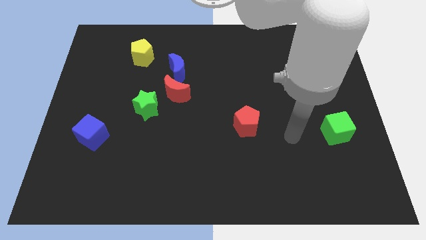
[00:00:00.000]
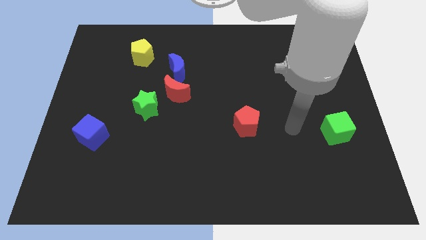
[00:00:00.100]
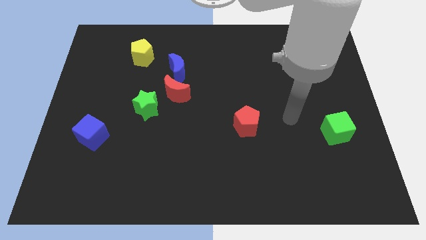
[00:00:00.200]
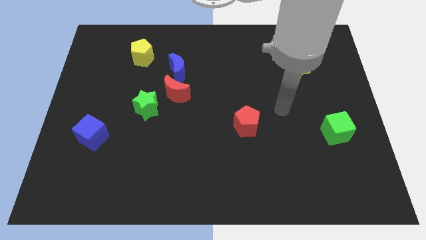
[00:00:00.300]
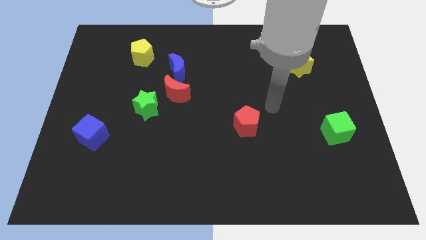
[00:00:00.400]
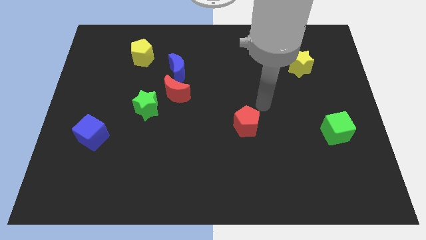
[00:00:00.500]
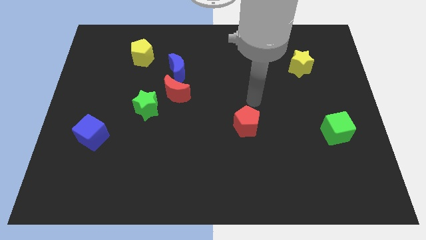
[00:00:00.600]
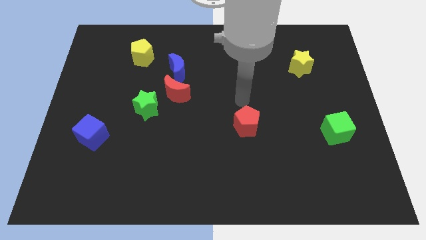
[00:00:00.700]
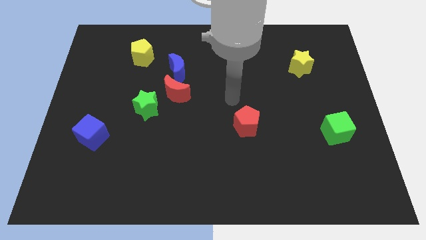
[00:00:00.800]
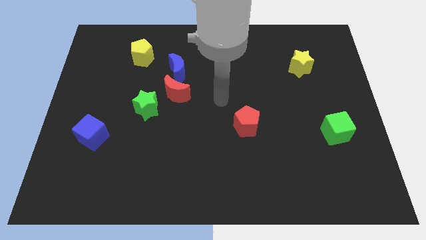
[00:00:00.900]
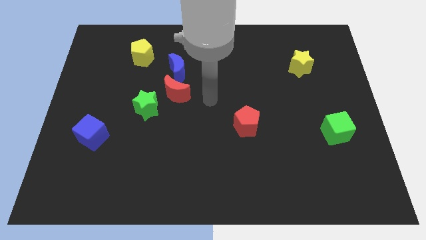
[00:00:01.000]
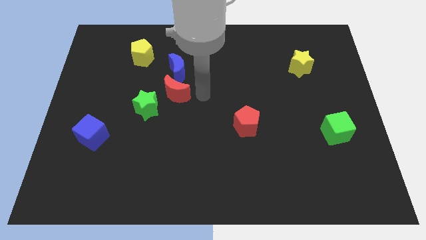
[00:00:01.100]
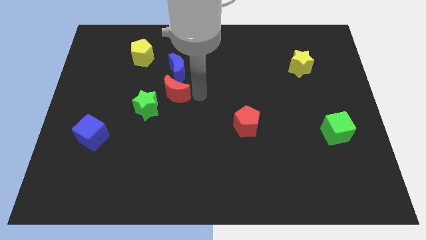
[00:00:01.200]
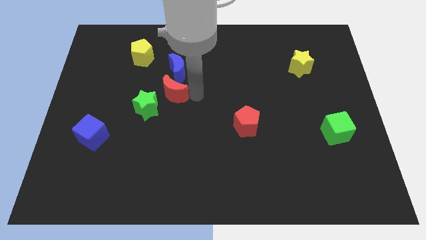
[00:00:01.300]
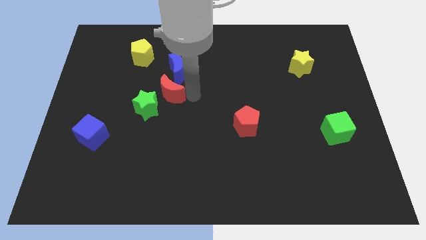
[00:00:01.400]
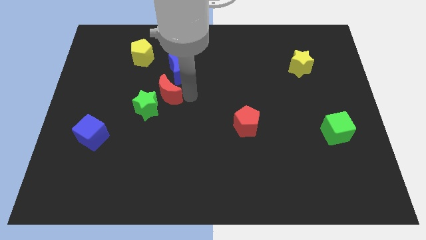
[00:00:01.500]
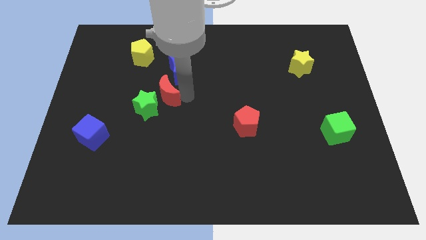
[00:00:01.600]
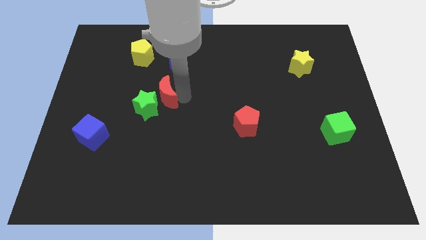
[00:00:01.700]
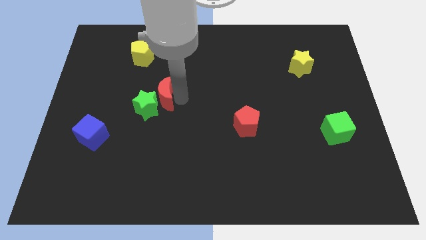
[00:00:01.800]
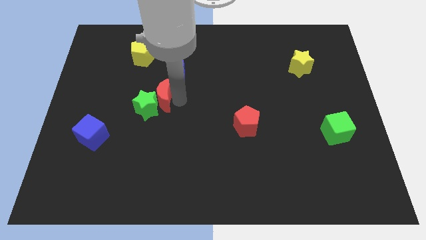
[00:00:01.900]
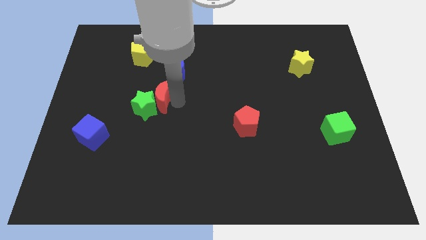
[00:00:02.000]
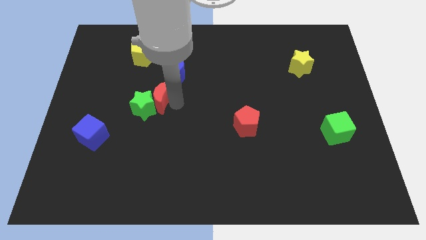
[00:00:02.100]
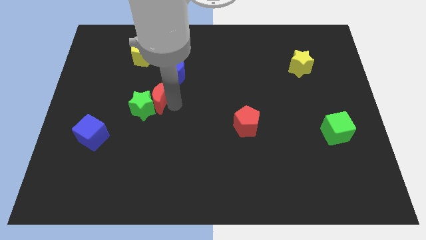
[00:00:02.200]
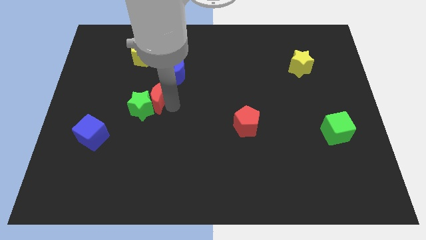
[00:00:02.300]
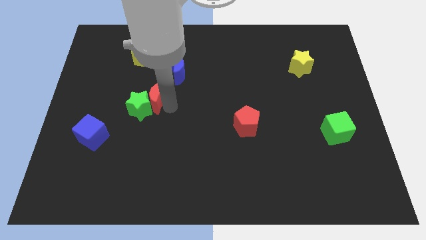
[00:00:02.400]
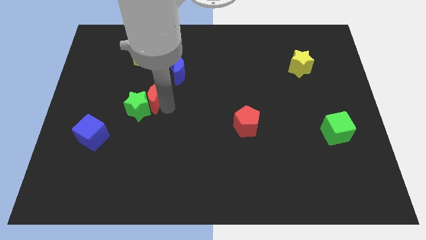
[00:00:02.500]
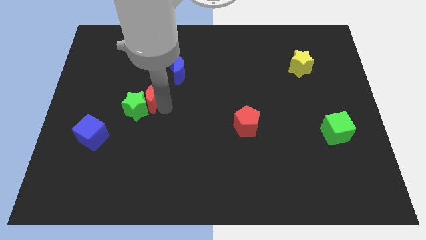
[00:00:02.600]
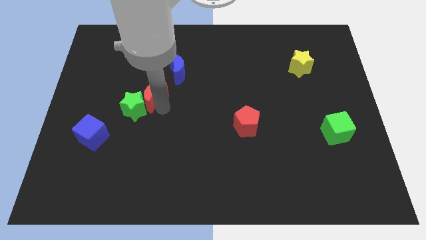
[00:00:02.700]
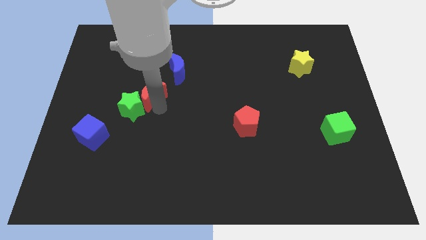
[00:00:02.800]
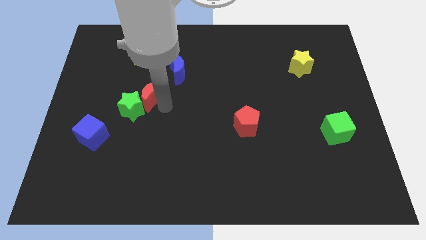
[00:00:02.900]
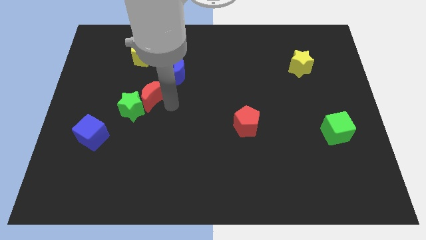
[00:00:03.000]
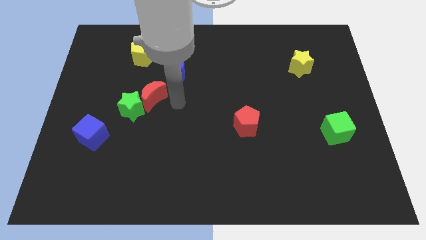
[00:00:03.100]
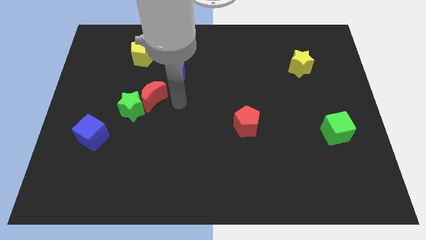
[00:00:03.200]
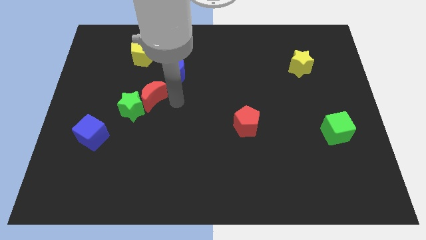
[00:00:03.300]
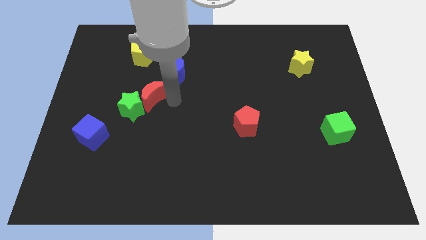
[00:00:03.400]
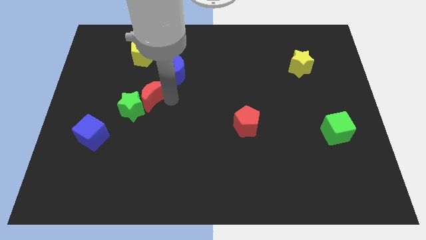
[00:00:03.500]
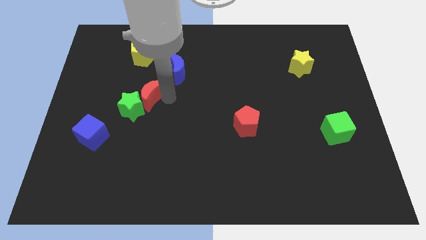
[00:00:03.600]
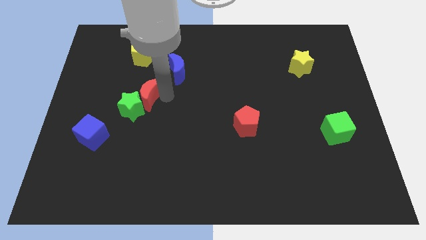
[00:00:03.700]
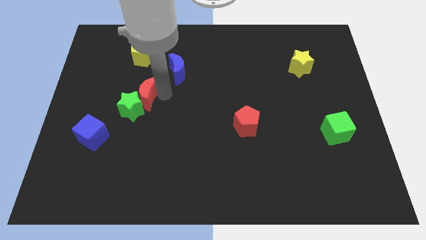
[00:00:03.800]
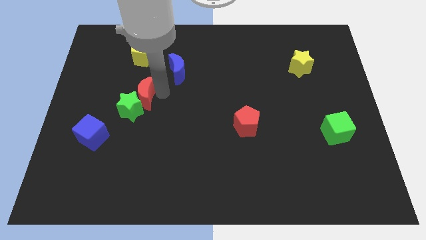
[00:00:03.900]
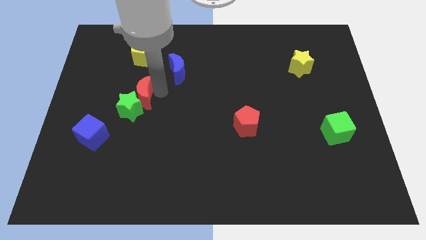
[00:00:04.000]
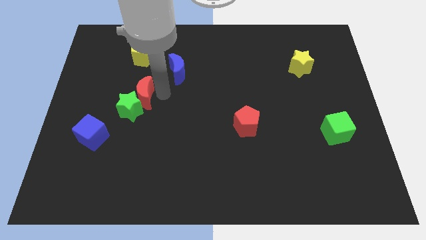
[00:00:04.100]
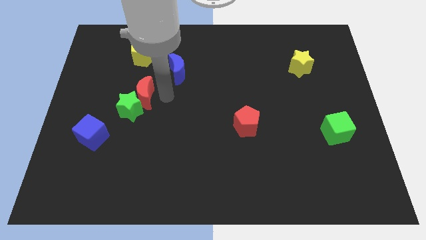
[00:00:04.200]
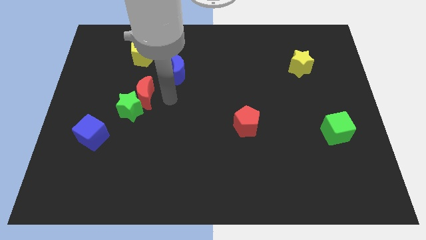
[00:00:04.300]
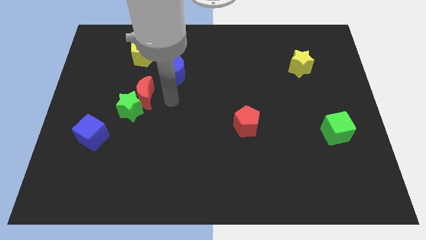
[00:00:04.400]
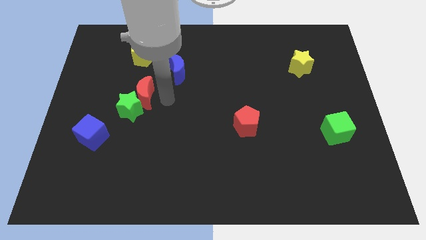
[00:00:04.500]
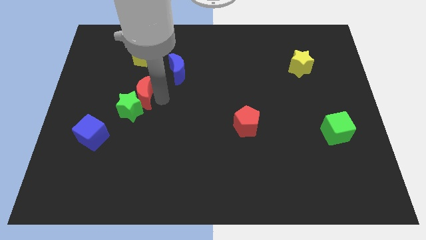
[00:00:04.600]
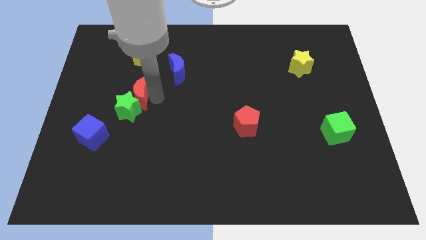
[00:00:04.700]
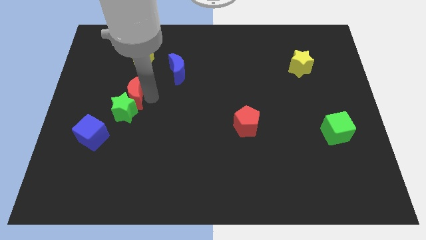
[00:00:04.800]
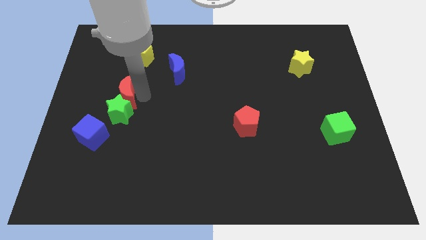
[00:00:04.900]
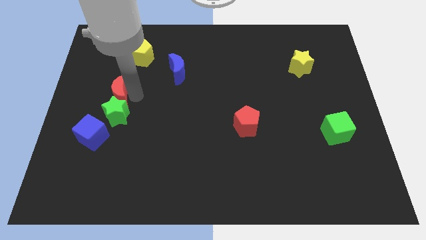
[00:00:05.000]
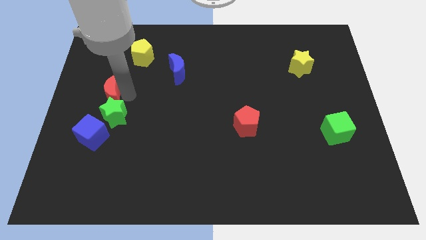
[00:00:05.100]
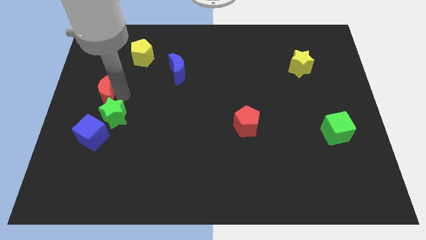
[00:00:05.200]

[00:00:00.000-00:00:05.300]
push the red moon to the left side of the board

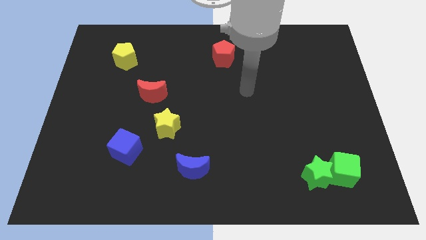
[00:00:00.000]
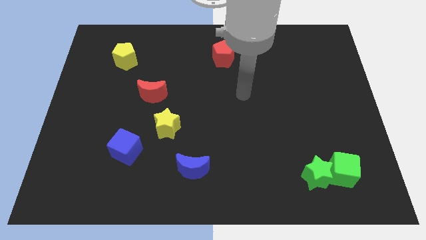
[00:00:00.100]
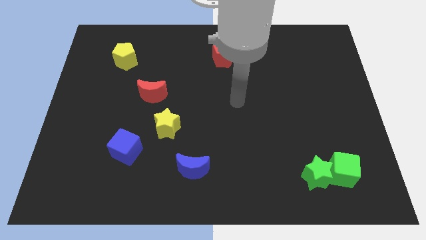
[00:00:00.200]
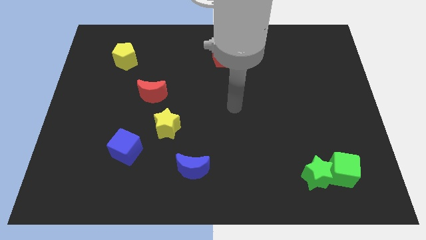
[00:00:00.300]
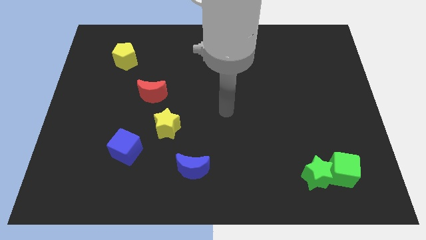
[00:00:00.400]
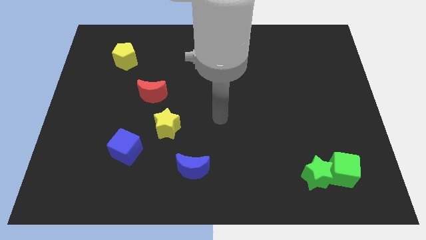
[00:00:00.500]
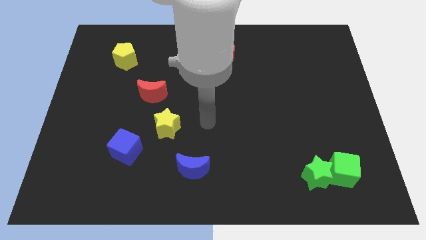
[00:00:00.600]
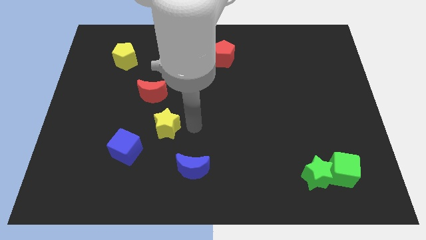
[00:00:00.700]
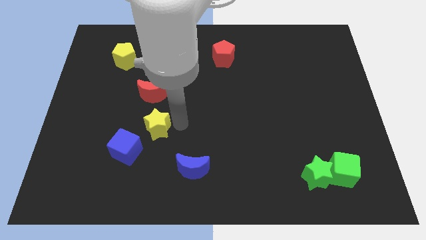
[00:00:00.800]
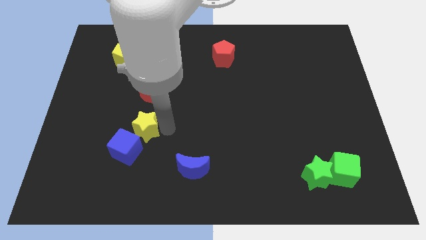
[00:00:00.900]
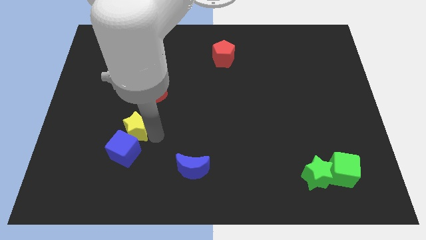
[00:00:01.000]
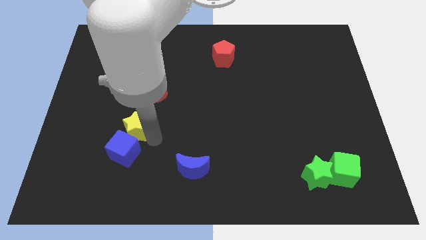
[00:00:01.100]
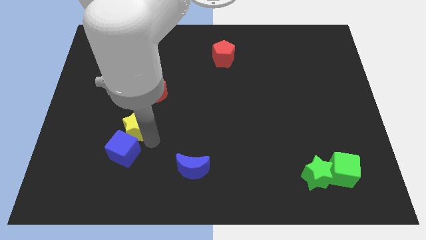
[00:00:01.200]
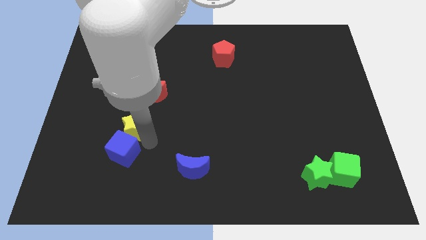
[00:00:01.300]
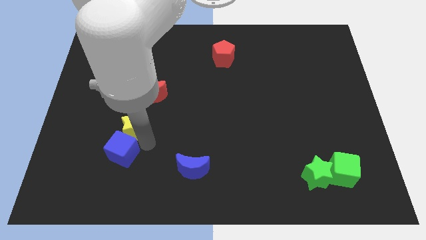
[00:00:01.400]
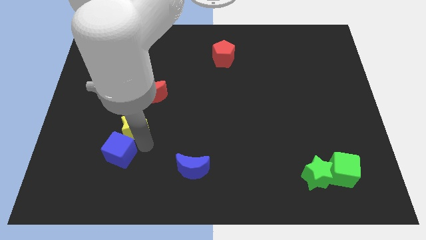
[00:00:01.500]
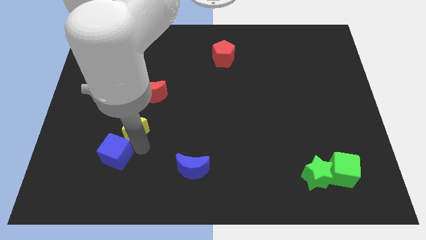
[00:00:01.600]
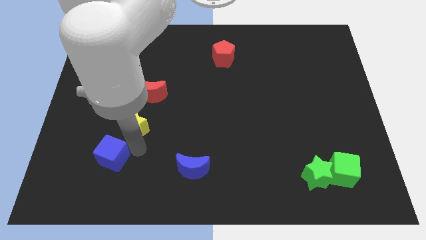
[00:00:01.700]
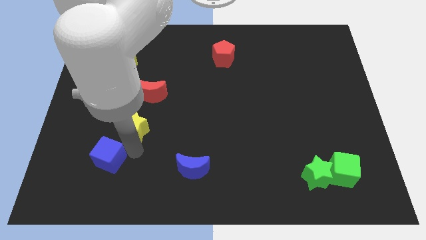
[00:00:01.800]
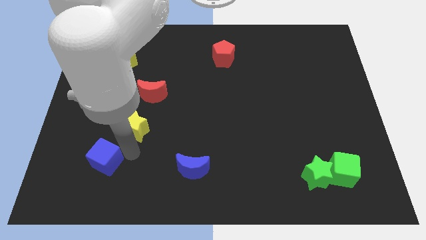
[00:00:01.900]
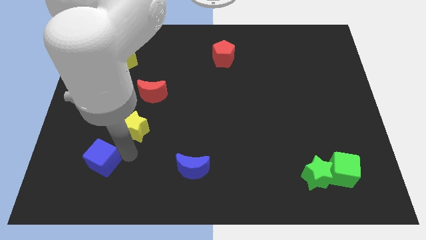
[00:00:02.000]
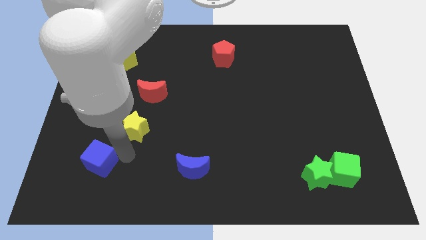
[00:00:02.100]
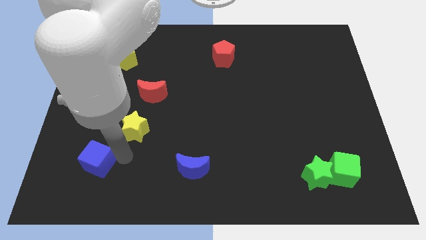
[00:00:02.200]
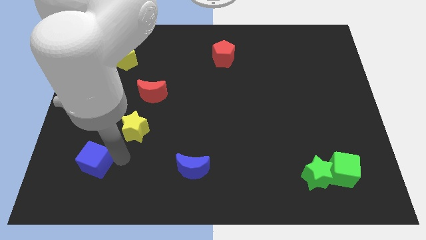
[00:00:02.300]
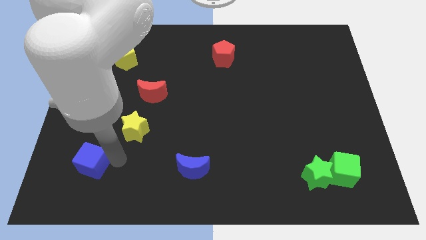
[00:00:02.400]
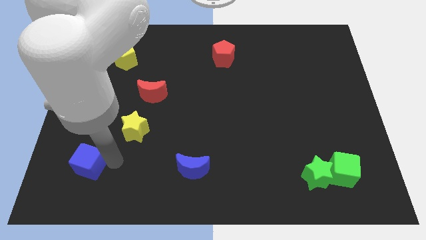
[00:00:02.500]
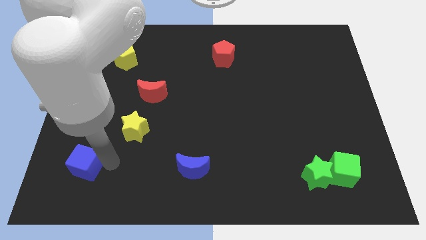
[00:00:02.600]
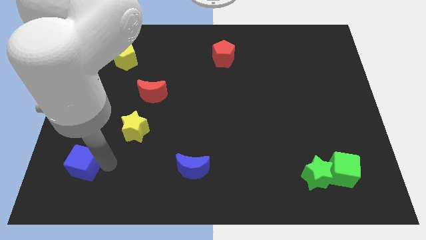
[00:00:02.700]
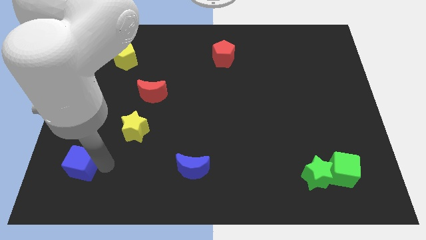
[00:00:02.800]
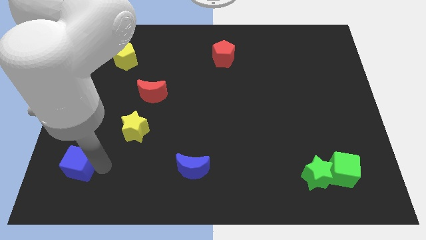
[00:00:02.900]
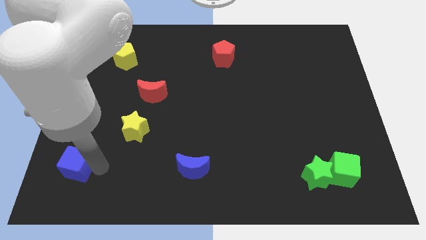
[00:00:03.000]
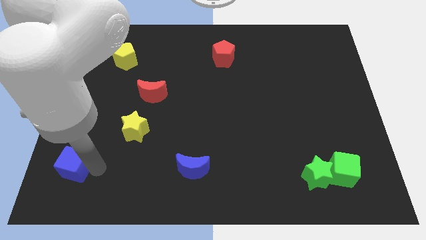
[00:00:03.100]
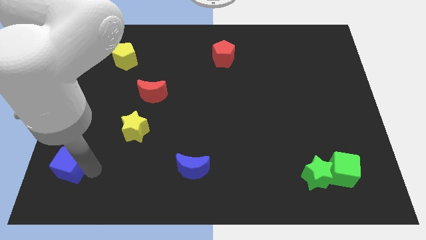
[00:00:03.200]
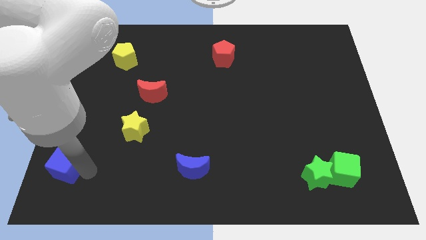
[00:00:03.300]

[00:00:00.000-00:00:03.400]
put the blue cube to the bottom left of the board
